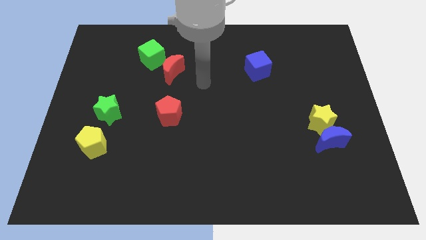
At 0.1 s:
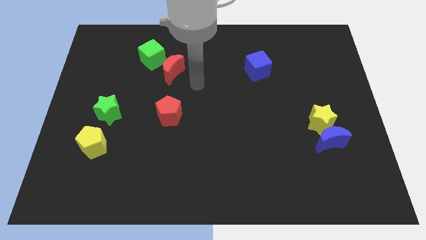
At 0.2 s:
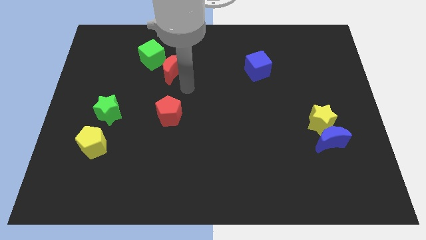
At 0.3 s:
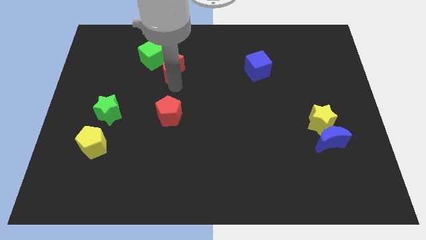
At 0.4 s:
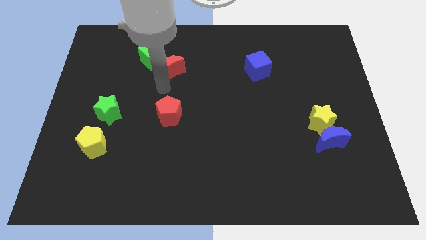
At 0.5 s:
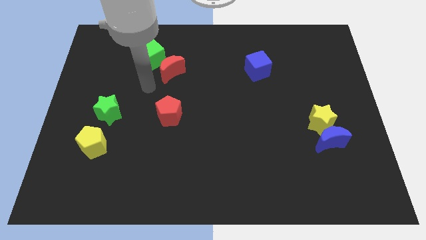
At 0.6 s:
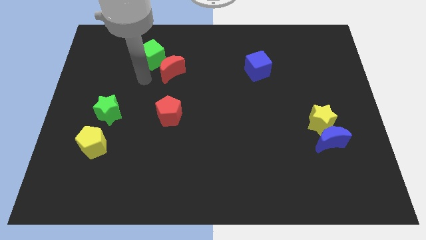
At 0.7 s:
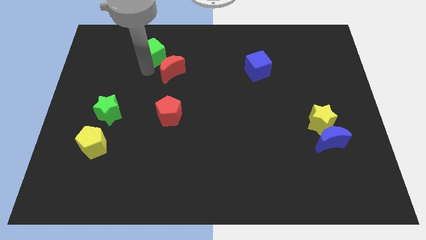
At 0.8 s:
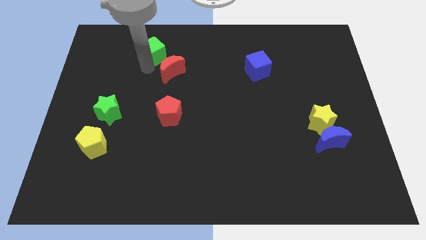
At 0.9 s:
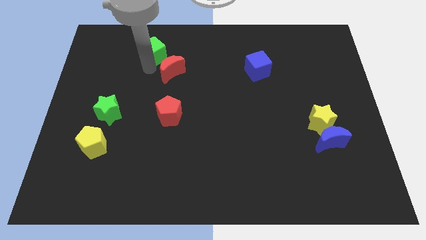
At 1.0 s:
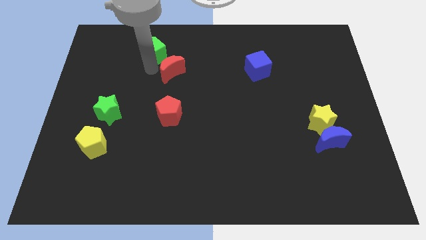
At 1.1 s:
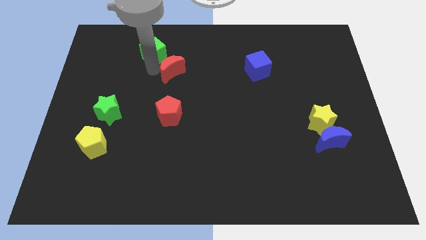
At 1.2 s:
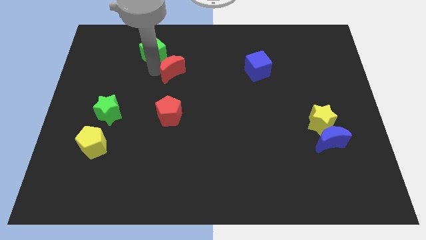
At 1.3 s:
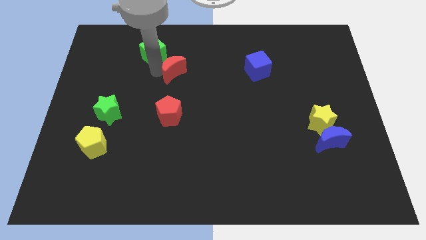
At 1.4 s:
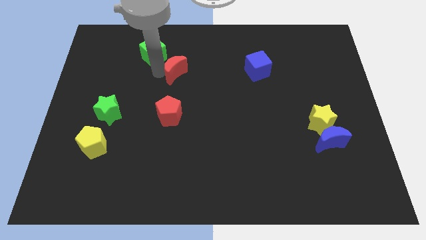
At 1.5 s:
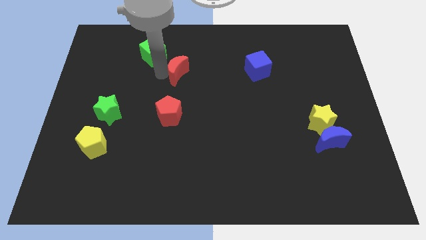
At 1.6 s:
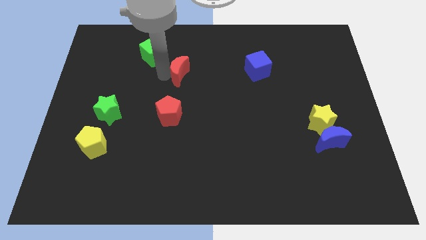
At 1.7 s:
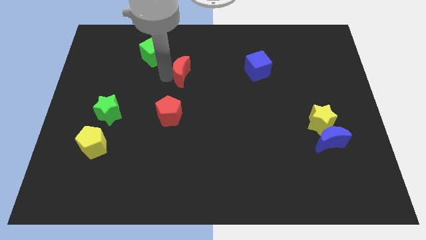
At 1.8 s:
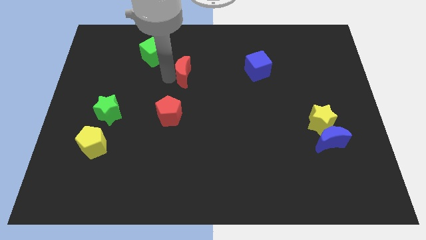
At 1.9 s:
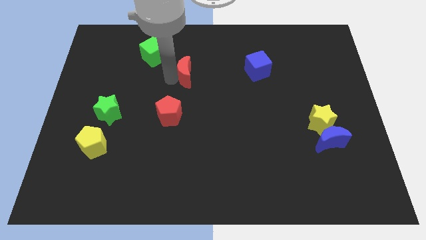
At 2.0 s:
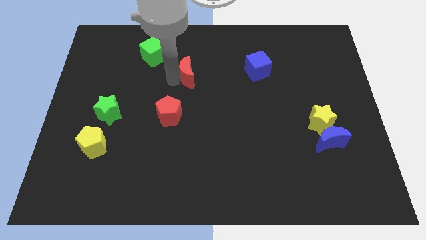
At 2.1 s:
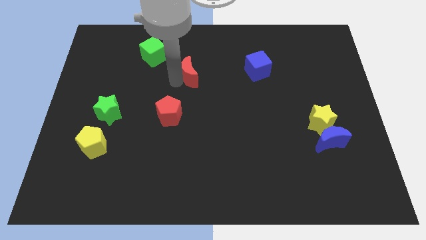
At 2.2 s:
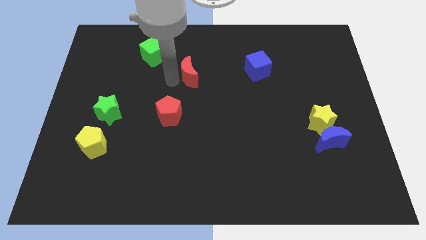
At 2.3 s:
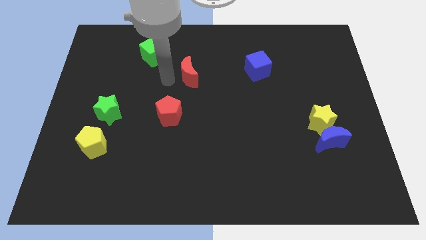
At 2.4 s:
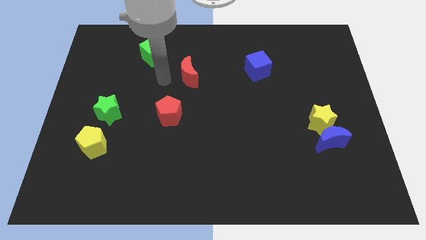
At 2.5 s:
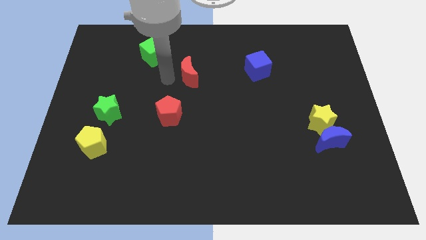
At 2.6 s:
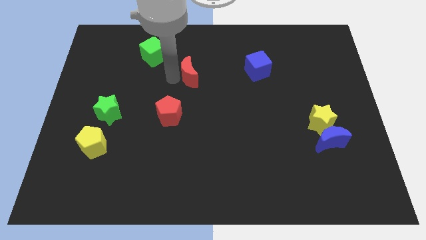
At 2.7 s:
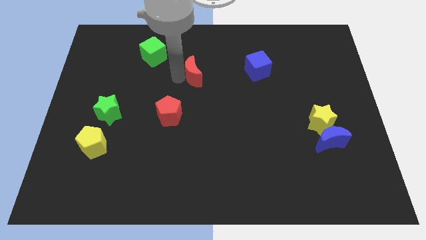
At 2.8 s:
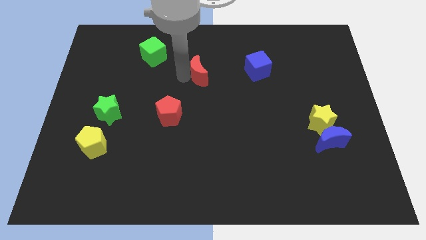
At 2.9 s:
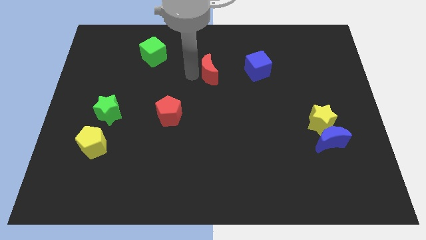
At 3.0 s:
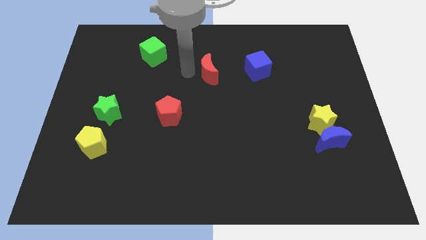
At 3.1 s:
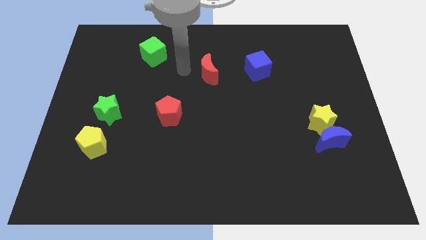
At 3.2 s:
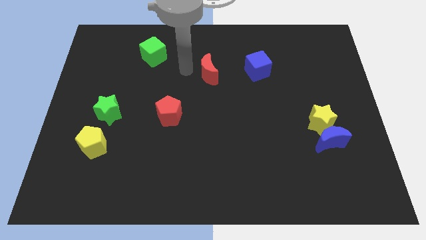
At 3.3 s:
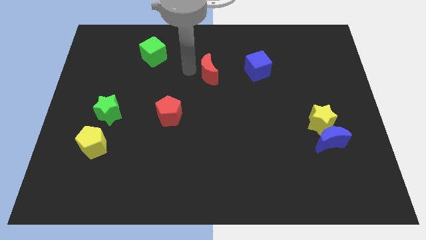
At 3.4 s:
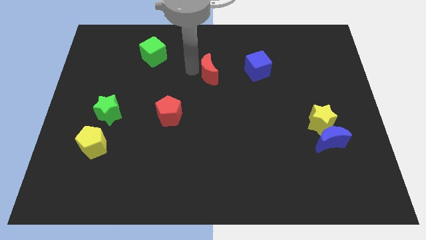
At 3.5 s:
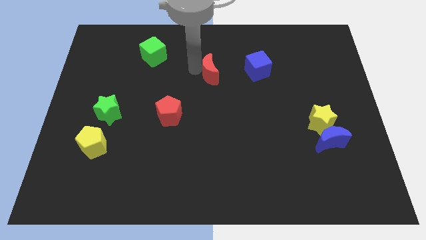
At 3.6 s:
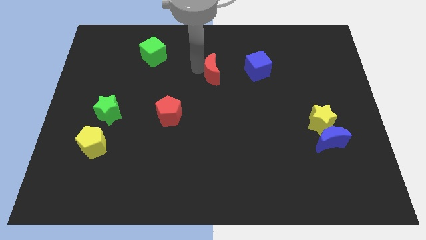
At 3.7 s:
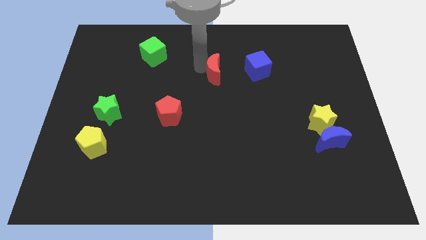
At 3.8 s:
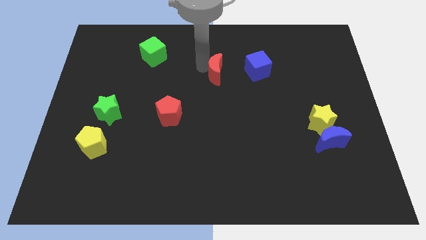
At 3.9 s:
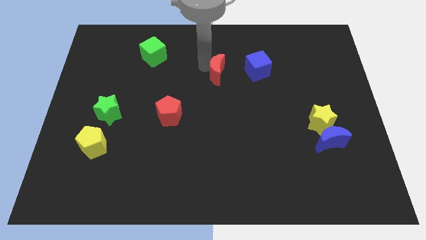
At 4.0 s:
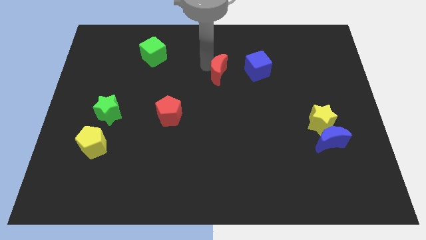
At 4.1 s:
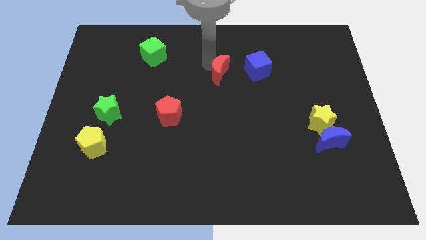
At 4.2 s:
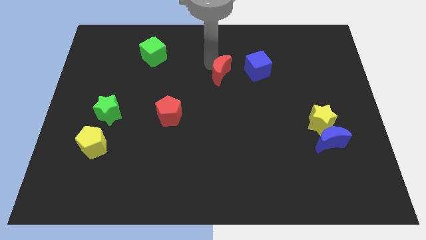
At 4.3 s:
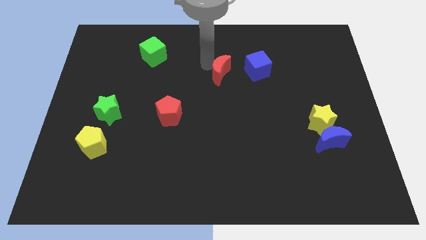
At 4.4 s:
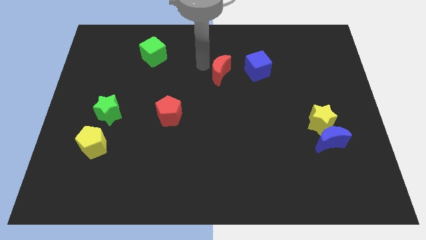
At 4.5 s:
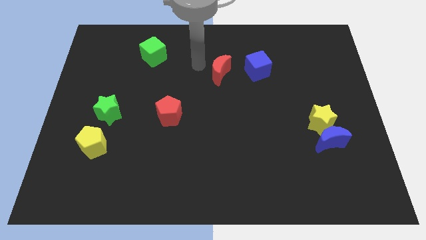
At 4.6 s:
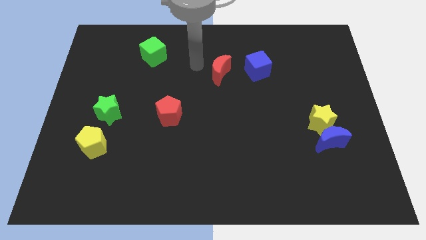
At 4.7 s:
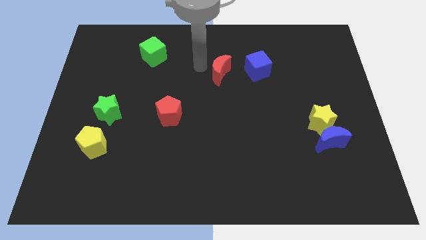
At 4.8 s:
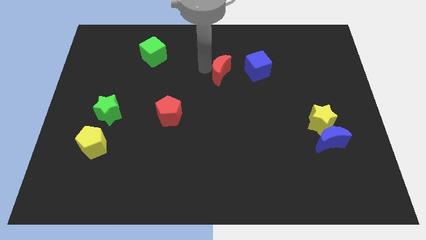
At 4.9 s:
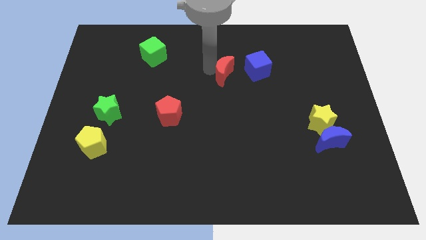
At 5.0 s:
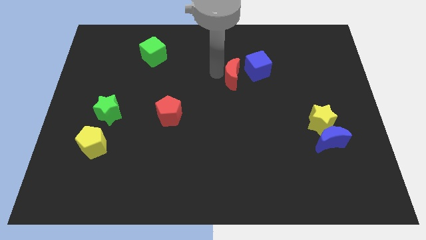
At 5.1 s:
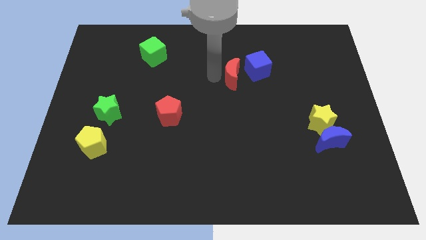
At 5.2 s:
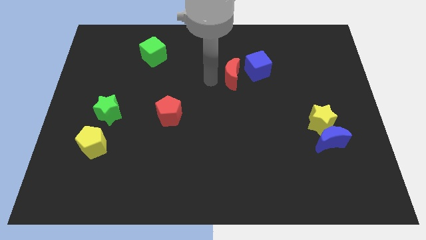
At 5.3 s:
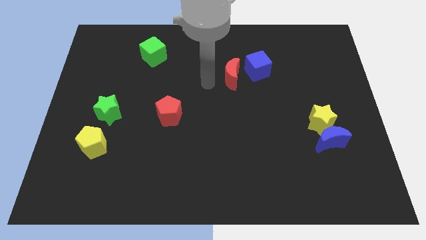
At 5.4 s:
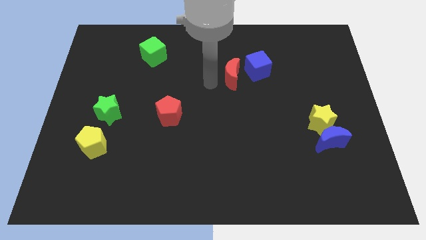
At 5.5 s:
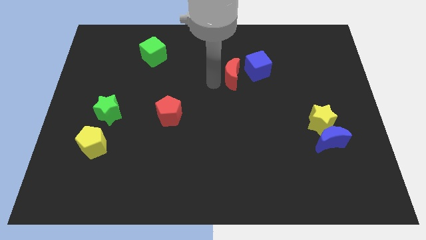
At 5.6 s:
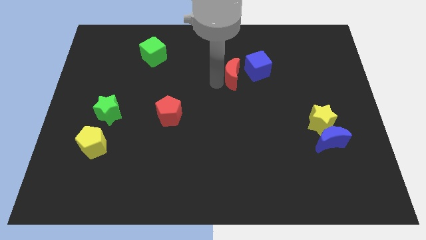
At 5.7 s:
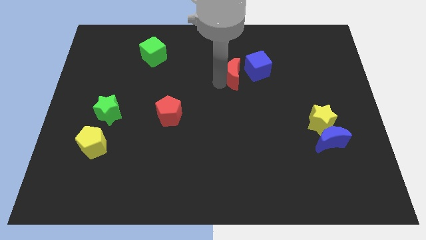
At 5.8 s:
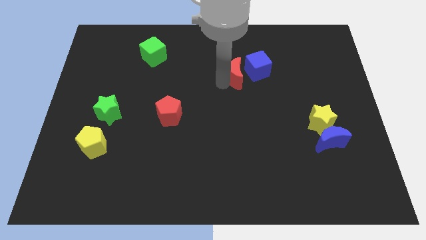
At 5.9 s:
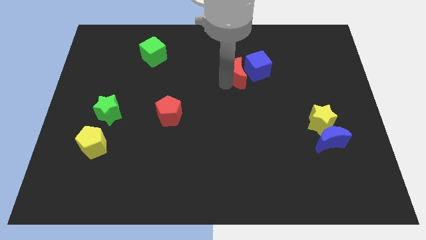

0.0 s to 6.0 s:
slide the red moon towards the blue cube

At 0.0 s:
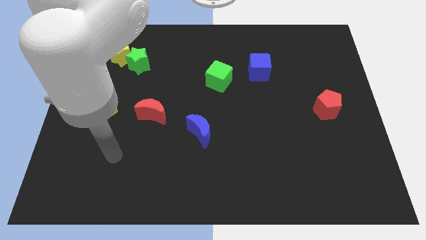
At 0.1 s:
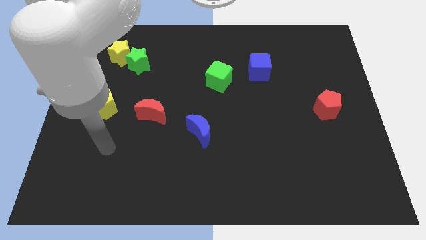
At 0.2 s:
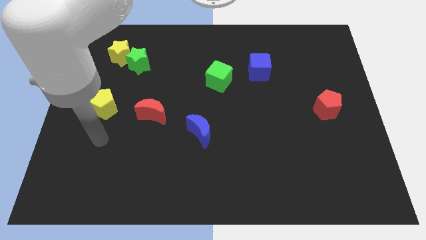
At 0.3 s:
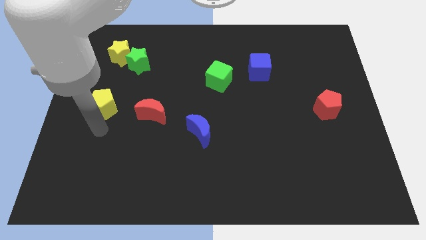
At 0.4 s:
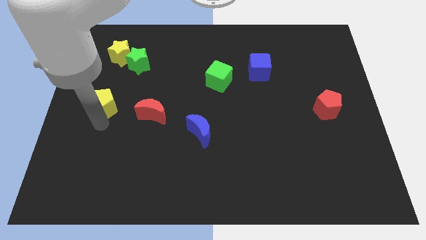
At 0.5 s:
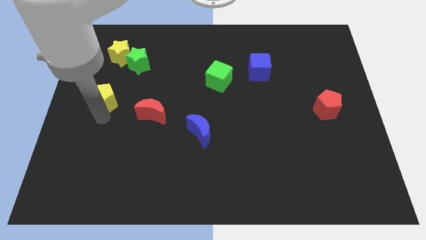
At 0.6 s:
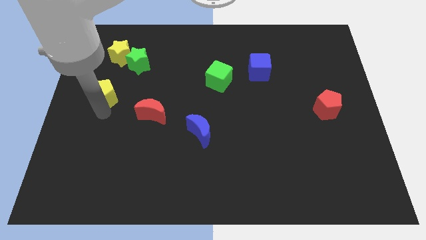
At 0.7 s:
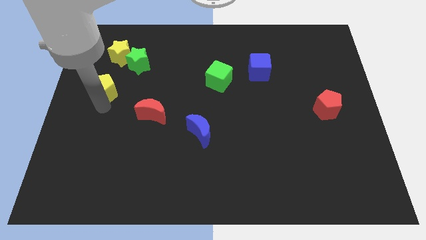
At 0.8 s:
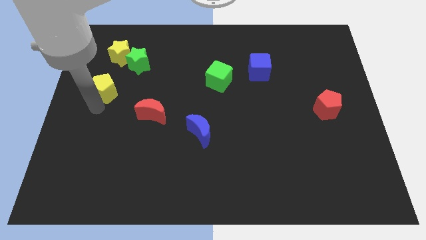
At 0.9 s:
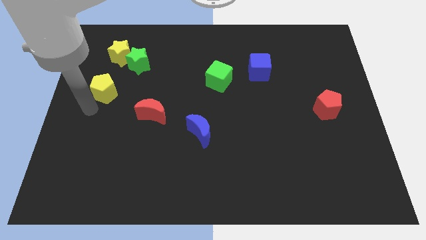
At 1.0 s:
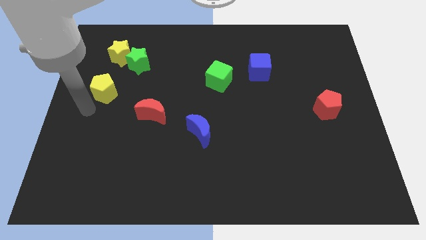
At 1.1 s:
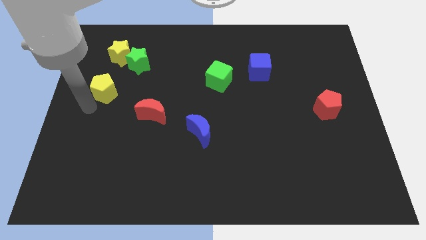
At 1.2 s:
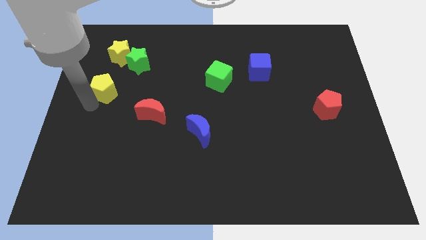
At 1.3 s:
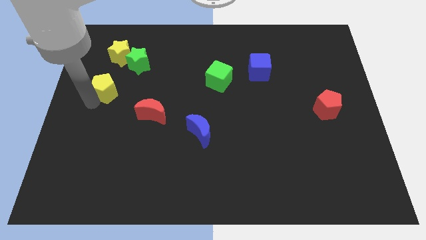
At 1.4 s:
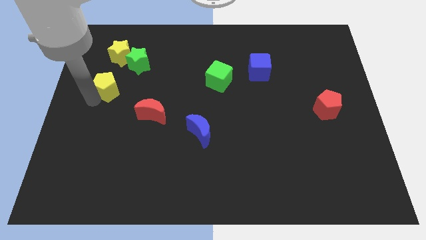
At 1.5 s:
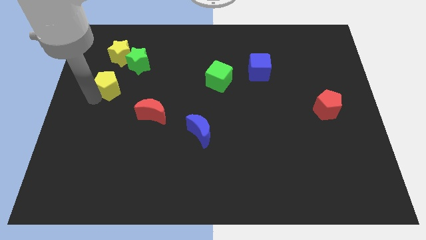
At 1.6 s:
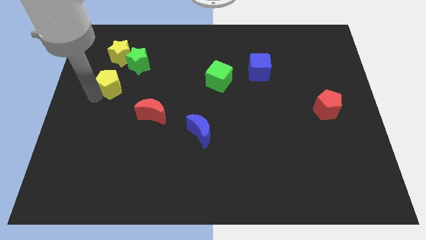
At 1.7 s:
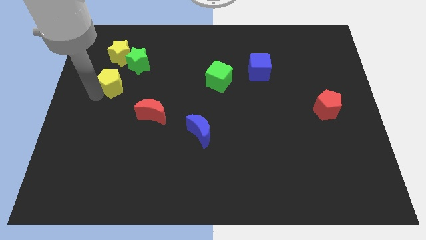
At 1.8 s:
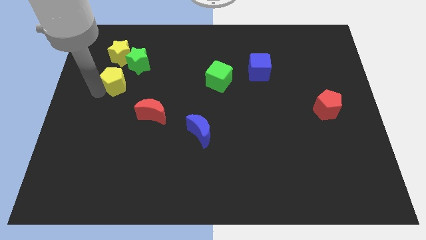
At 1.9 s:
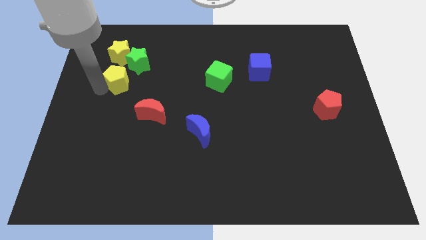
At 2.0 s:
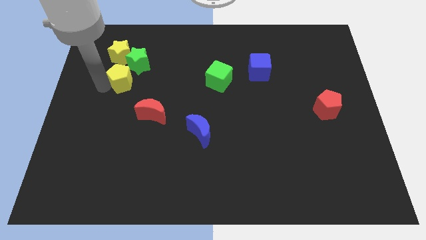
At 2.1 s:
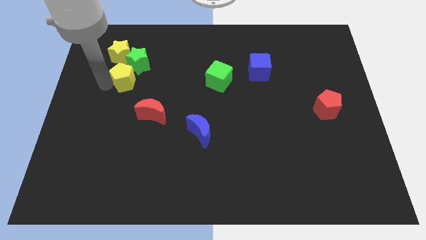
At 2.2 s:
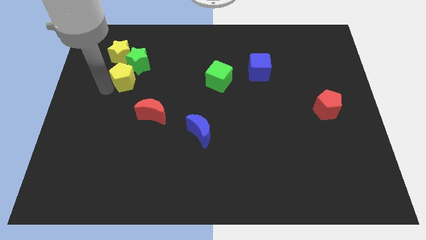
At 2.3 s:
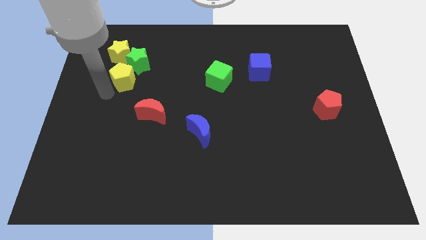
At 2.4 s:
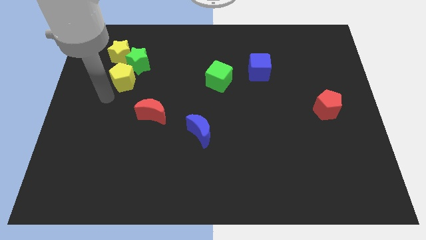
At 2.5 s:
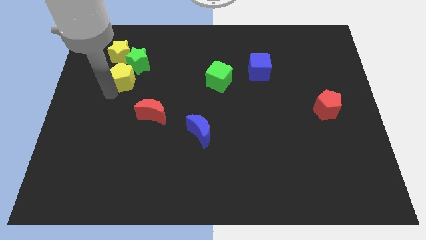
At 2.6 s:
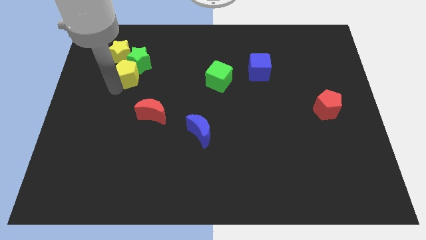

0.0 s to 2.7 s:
move the yellow pentagon close to the green star
